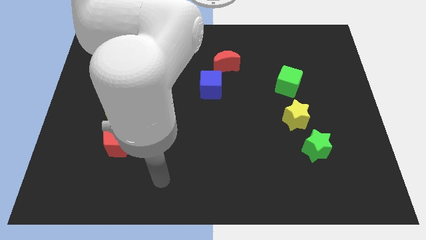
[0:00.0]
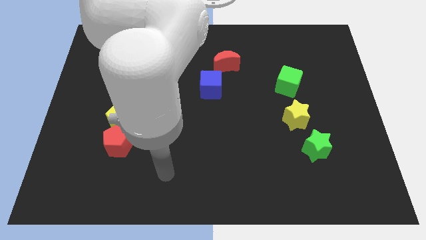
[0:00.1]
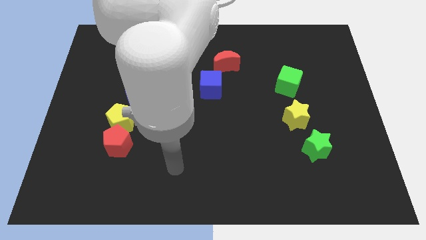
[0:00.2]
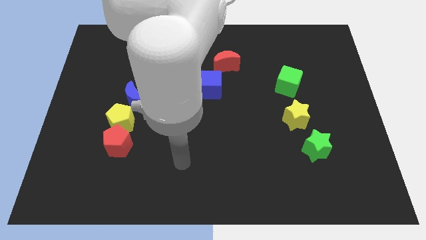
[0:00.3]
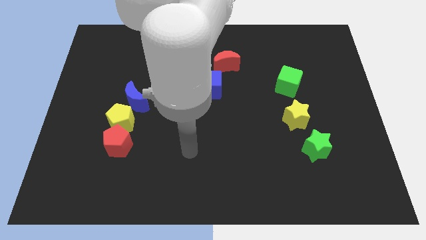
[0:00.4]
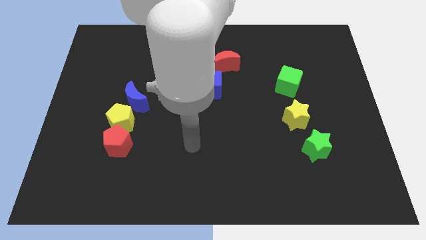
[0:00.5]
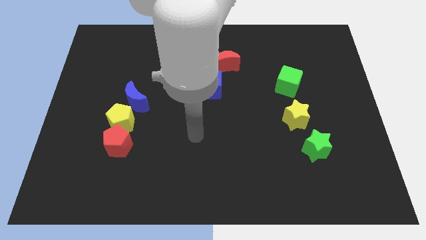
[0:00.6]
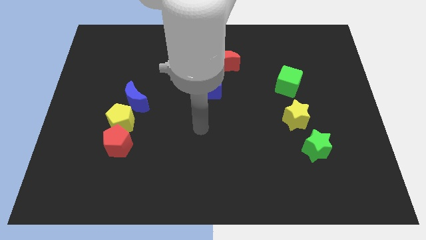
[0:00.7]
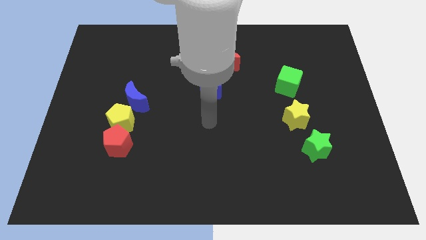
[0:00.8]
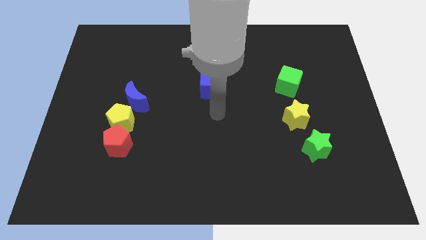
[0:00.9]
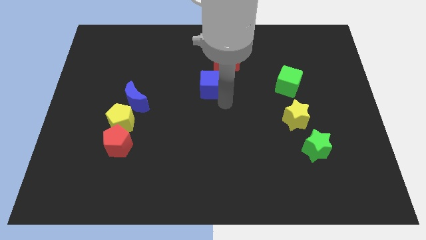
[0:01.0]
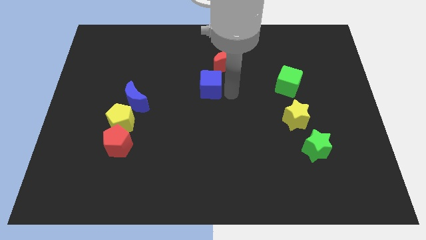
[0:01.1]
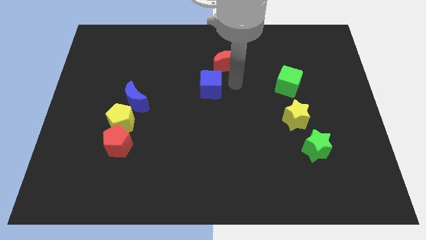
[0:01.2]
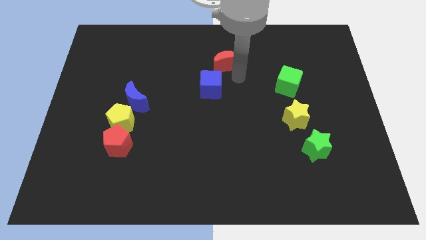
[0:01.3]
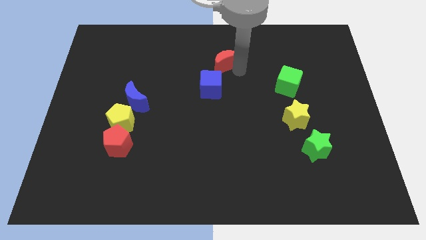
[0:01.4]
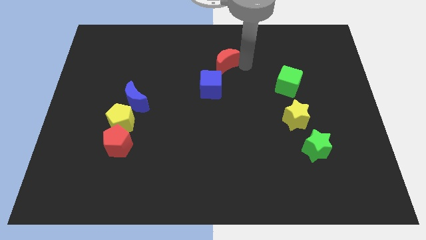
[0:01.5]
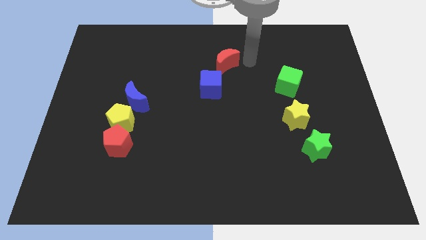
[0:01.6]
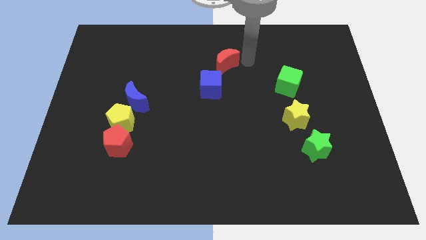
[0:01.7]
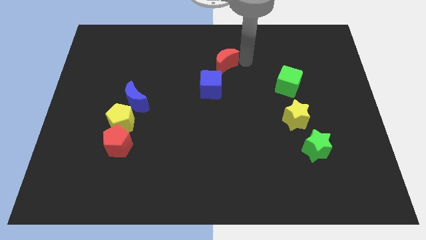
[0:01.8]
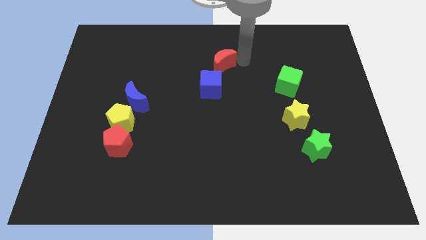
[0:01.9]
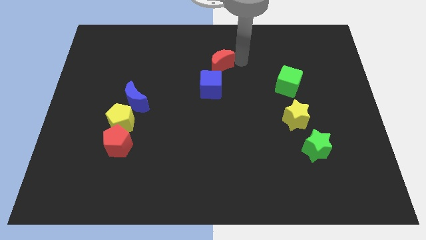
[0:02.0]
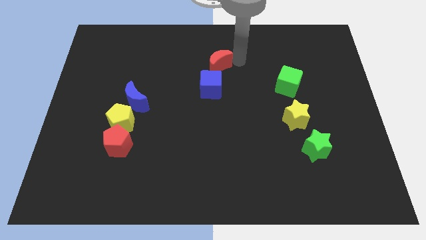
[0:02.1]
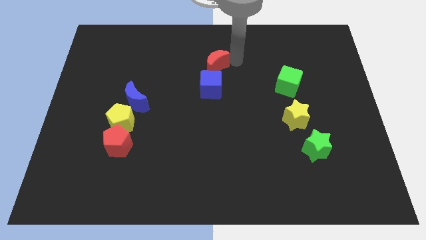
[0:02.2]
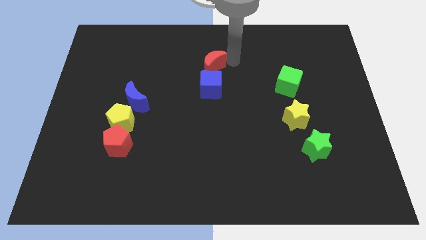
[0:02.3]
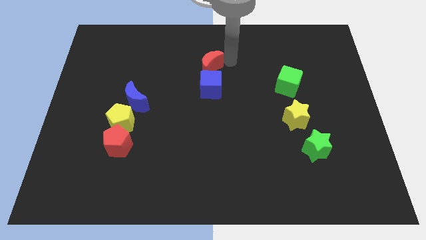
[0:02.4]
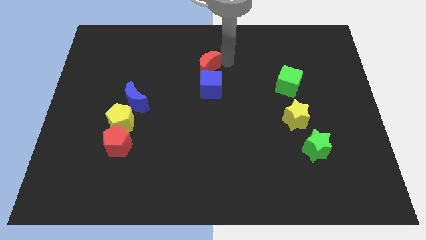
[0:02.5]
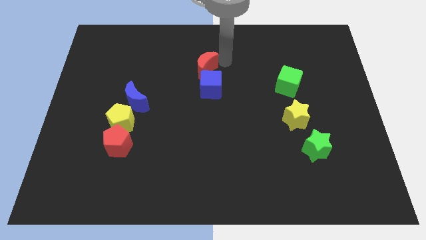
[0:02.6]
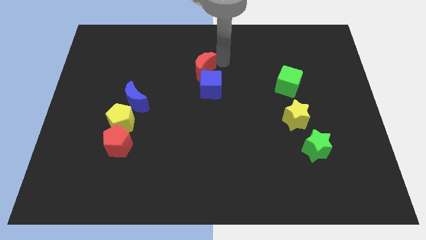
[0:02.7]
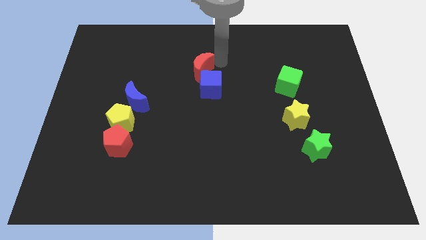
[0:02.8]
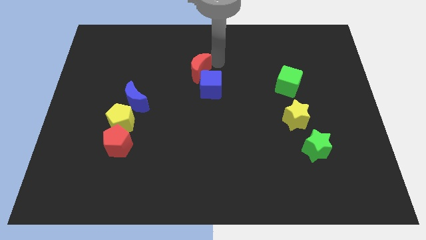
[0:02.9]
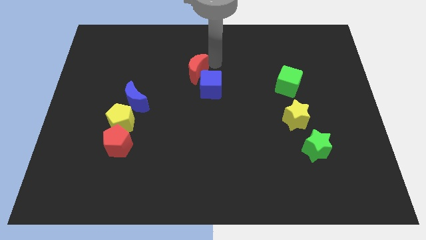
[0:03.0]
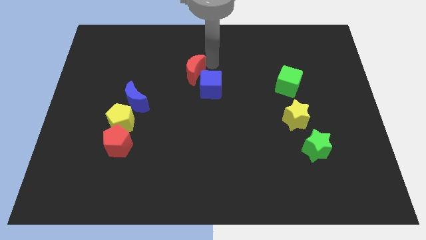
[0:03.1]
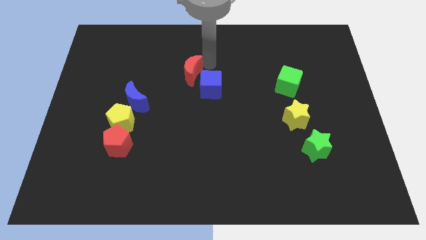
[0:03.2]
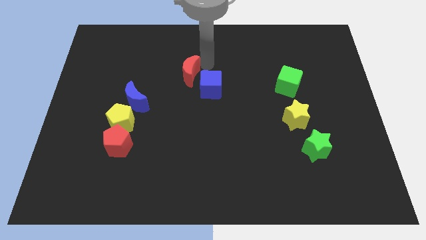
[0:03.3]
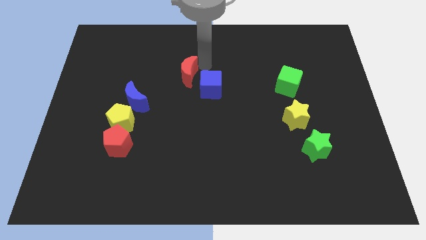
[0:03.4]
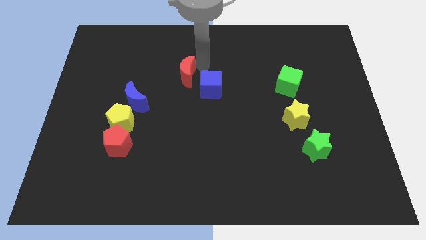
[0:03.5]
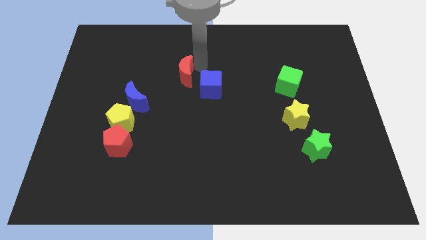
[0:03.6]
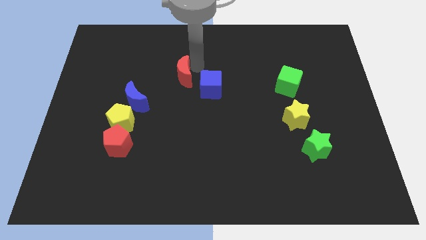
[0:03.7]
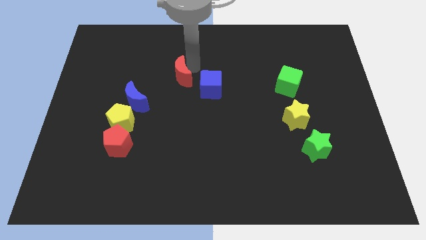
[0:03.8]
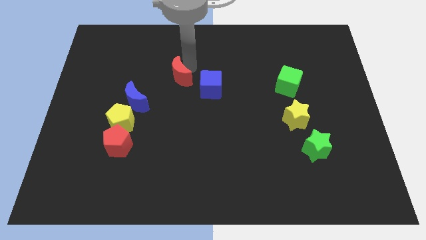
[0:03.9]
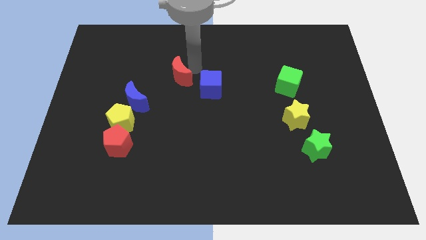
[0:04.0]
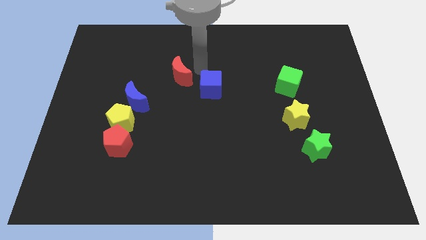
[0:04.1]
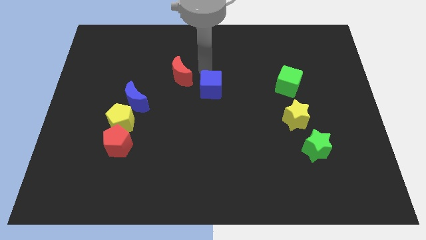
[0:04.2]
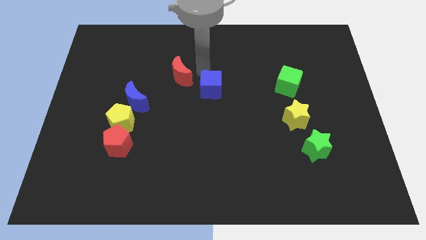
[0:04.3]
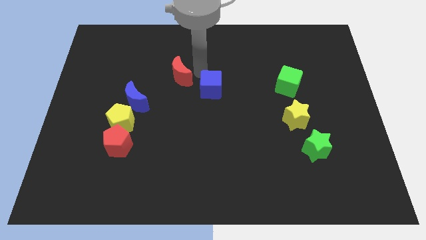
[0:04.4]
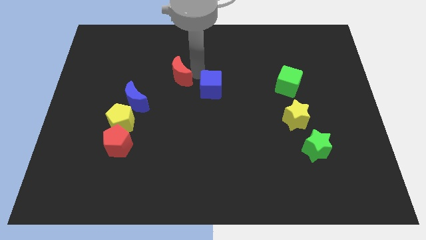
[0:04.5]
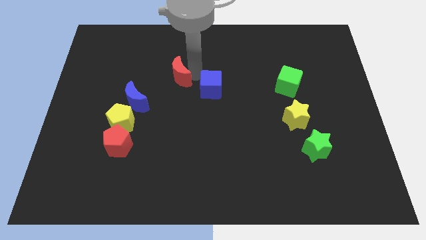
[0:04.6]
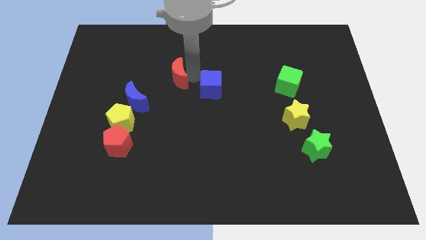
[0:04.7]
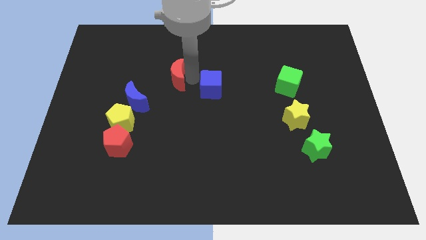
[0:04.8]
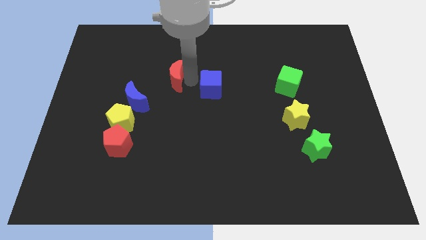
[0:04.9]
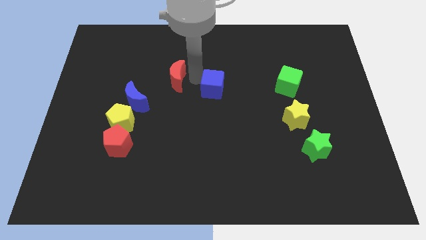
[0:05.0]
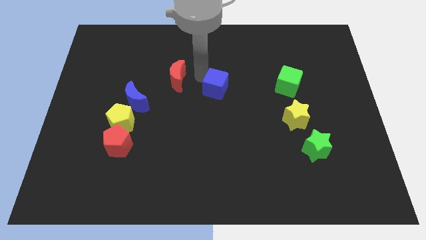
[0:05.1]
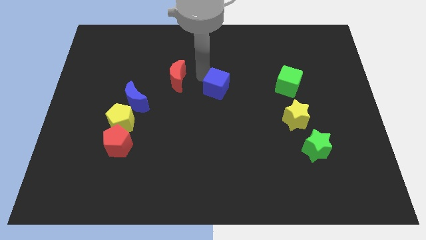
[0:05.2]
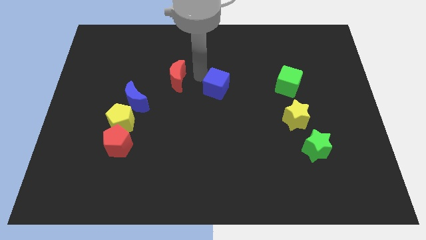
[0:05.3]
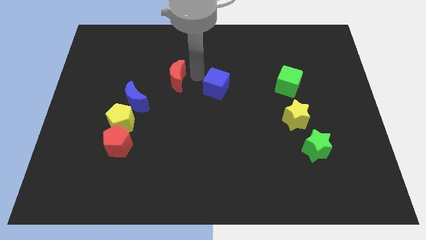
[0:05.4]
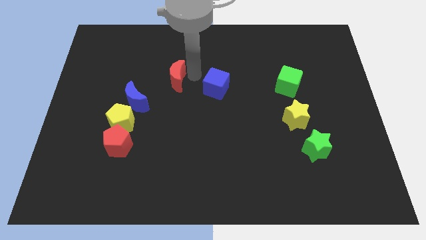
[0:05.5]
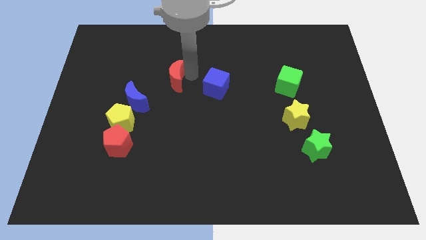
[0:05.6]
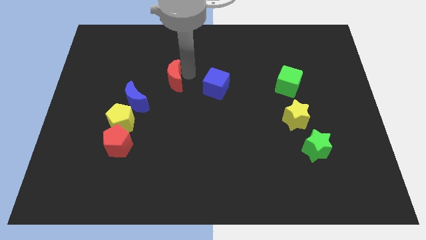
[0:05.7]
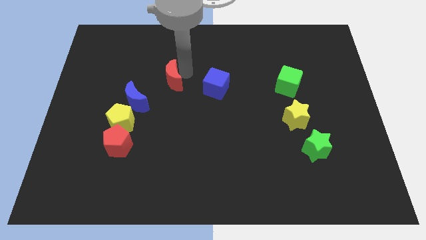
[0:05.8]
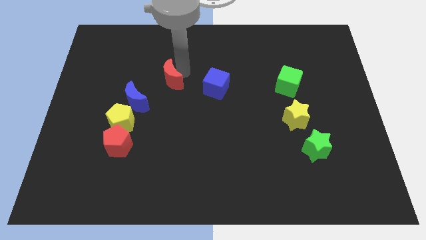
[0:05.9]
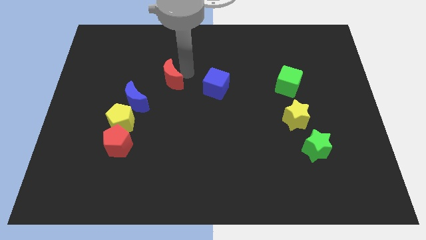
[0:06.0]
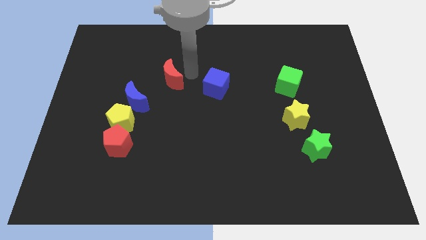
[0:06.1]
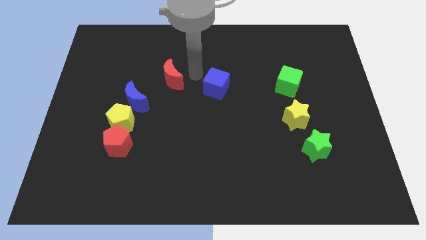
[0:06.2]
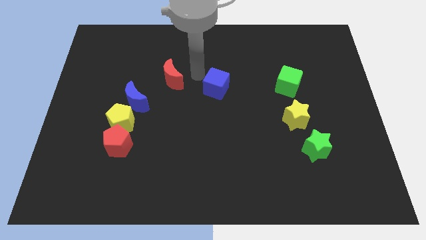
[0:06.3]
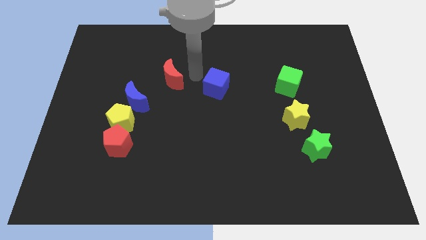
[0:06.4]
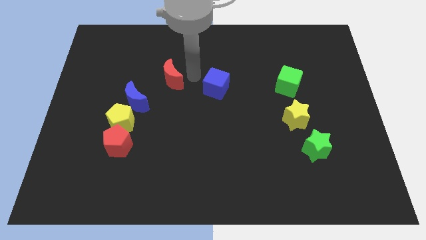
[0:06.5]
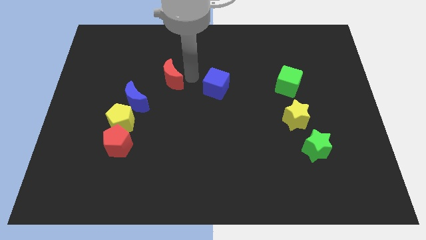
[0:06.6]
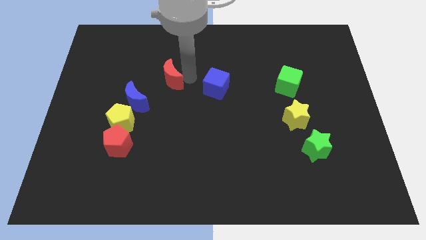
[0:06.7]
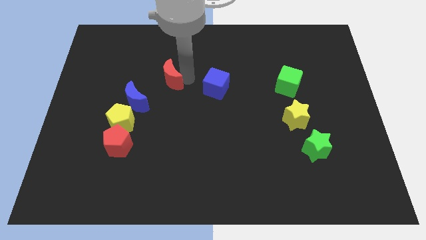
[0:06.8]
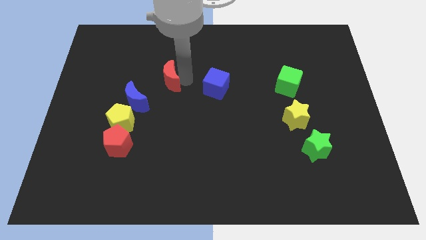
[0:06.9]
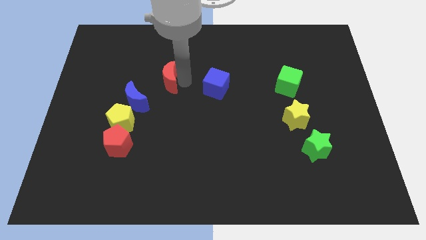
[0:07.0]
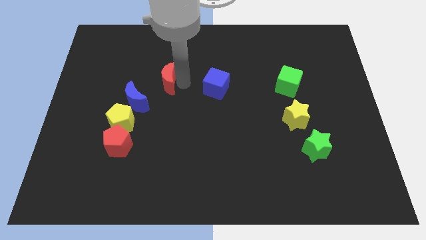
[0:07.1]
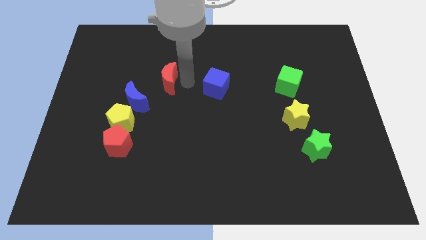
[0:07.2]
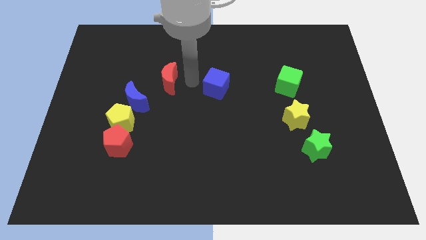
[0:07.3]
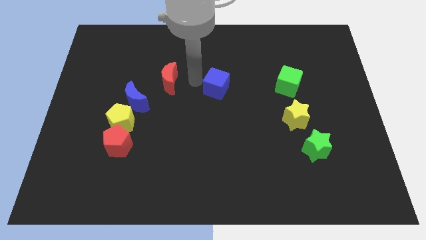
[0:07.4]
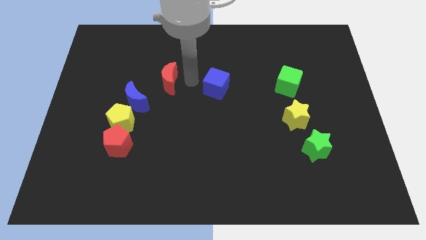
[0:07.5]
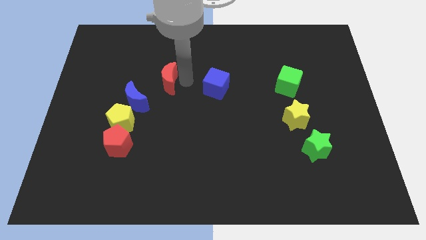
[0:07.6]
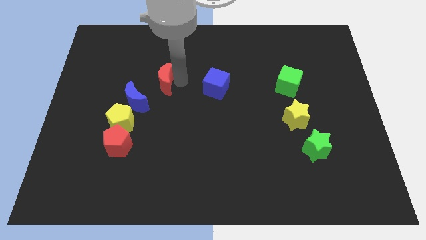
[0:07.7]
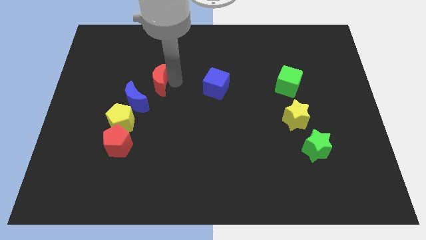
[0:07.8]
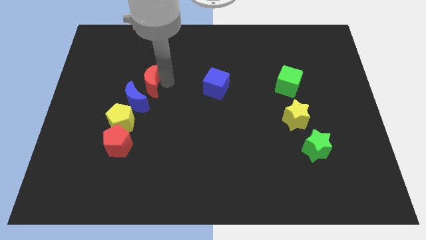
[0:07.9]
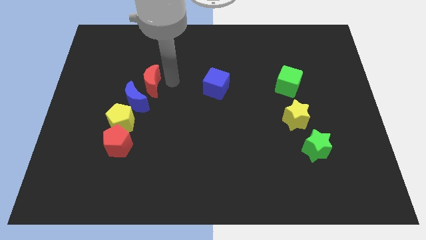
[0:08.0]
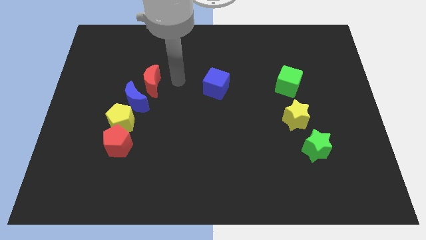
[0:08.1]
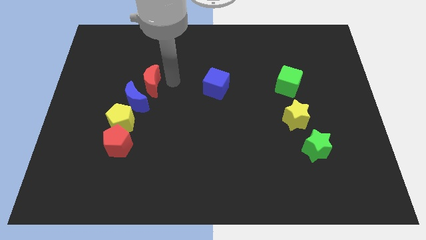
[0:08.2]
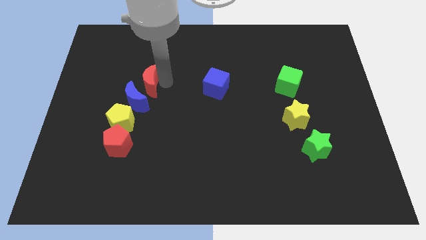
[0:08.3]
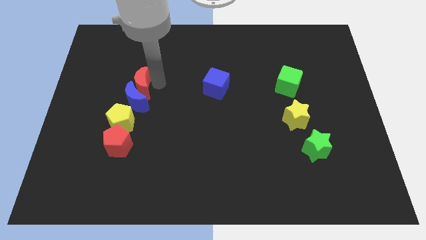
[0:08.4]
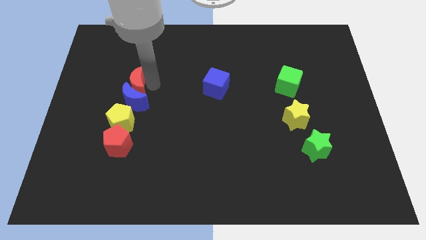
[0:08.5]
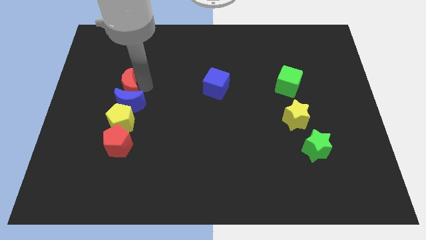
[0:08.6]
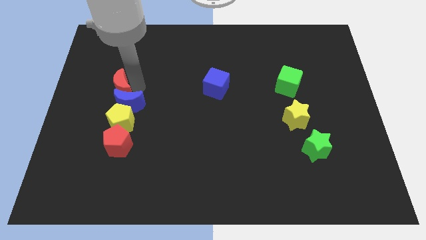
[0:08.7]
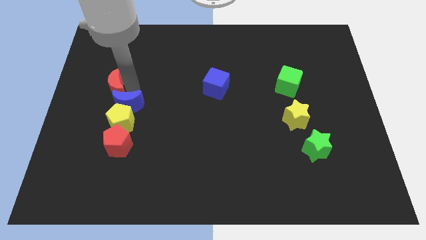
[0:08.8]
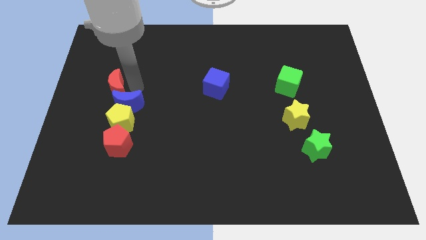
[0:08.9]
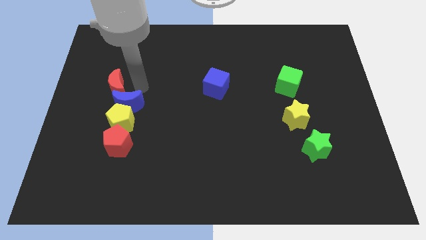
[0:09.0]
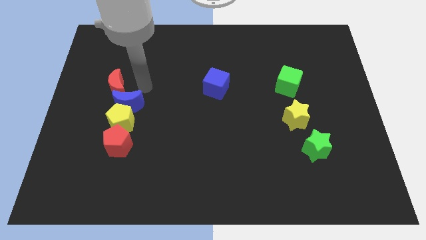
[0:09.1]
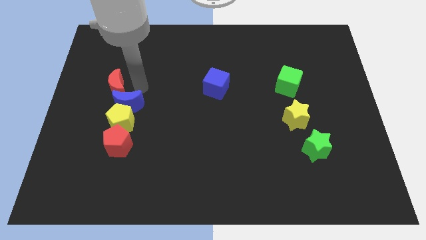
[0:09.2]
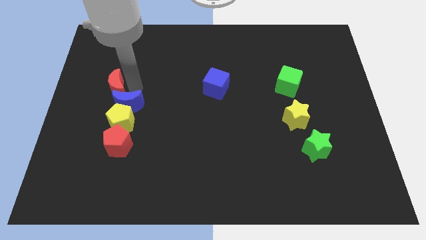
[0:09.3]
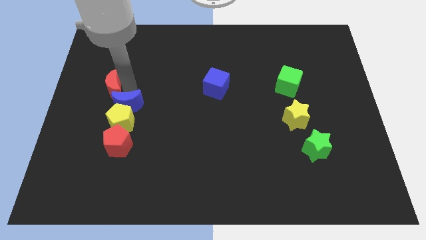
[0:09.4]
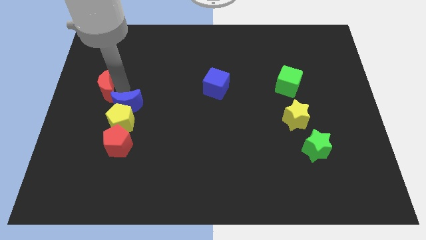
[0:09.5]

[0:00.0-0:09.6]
slide the red moon to the left side of the board
